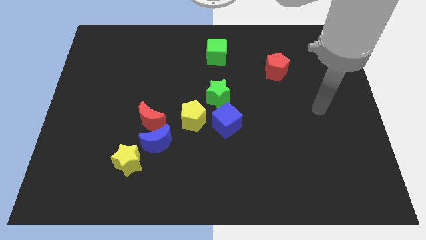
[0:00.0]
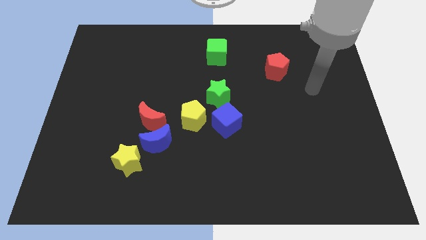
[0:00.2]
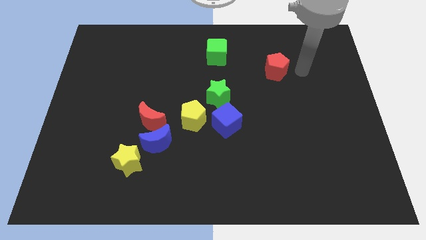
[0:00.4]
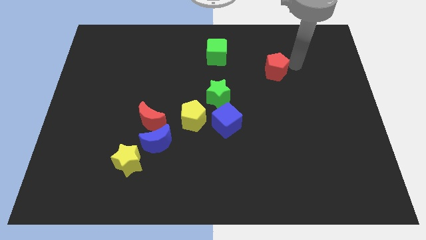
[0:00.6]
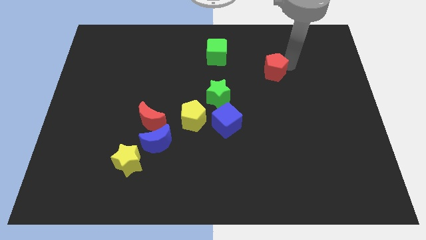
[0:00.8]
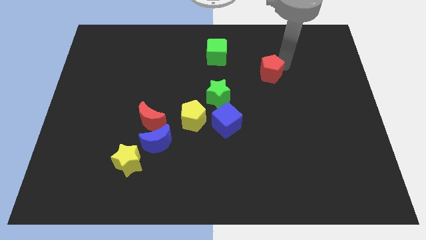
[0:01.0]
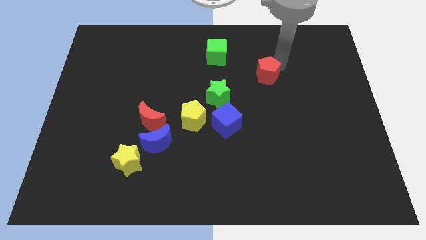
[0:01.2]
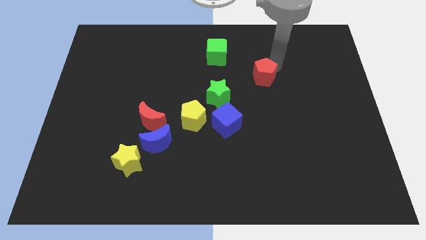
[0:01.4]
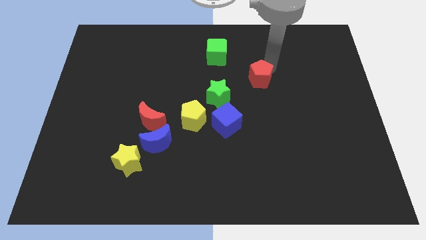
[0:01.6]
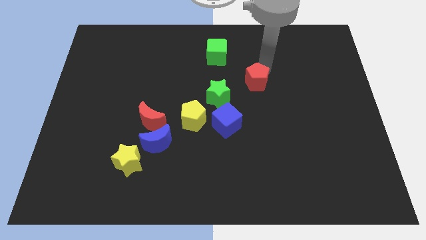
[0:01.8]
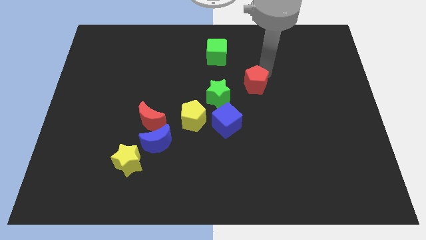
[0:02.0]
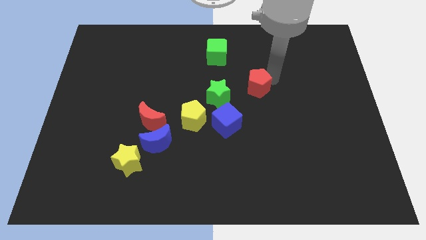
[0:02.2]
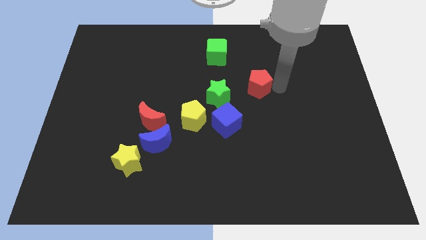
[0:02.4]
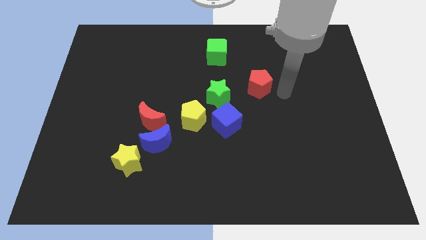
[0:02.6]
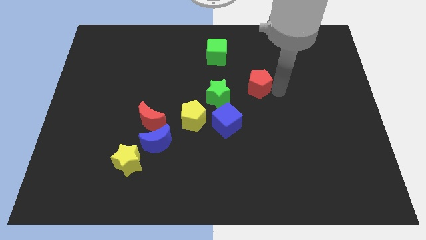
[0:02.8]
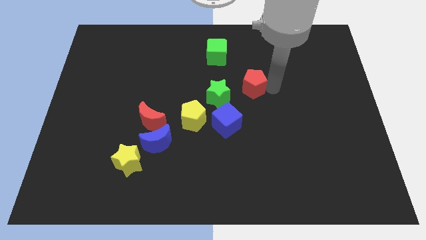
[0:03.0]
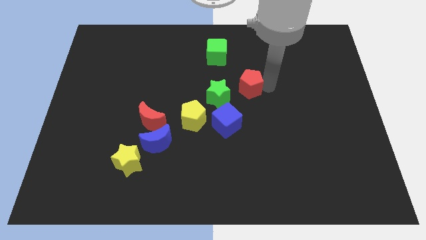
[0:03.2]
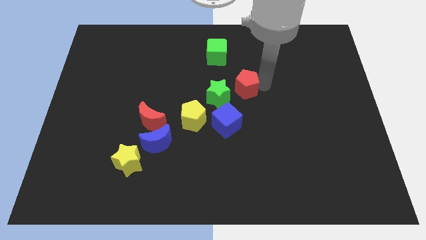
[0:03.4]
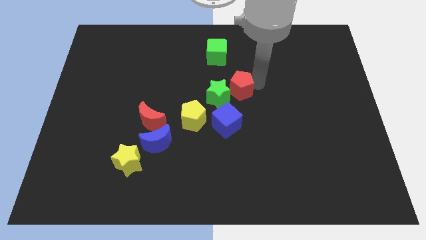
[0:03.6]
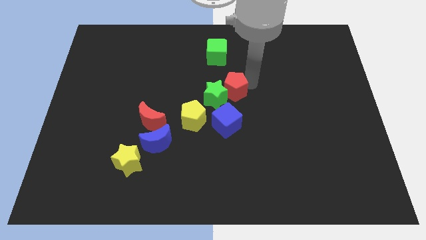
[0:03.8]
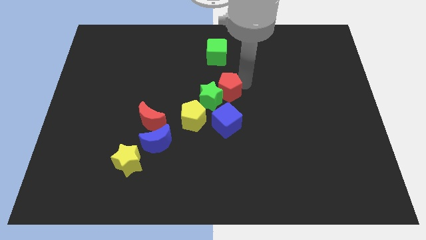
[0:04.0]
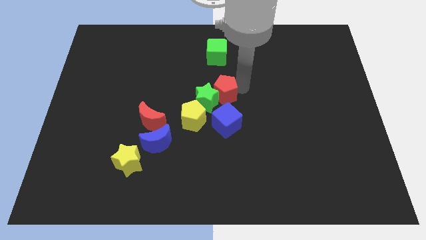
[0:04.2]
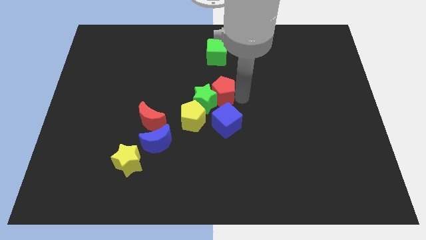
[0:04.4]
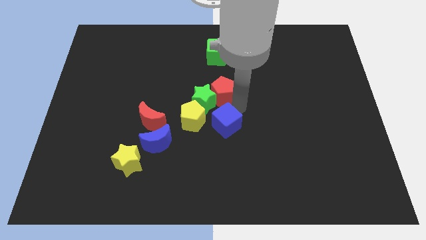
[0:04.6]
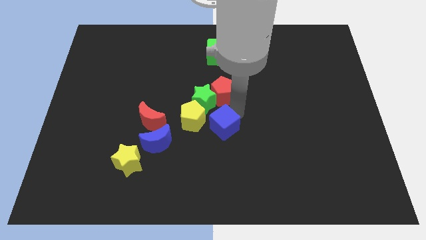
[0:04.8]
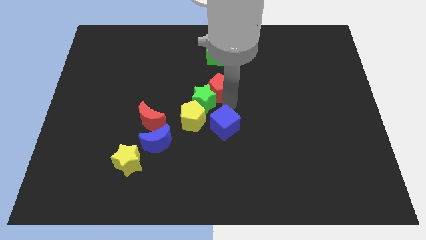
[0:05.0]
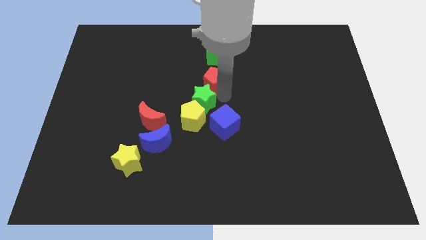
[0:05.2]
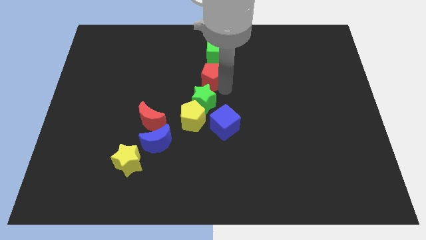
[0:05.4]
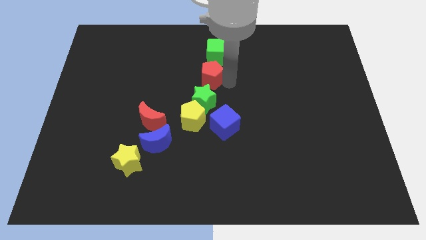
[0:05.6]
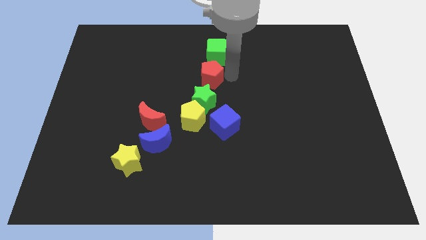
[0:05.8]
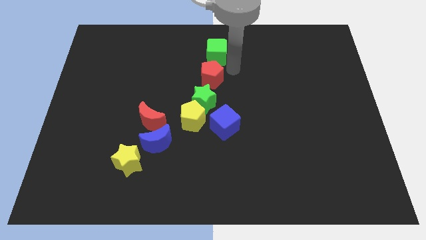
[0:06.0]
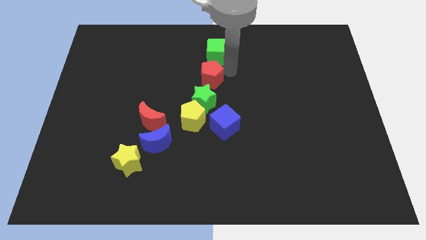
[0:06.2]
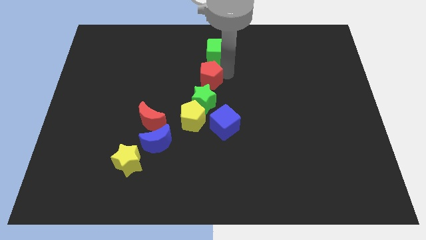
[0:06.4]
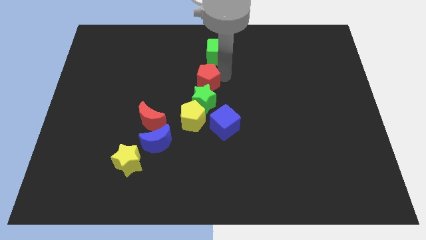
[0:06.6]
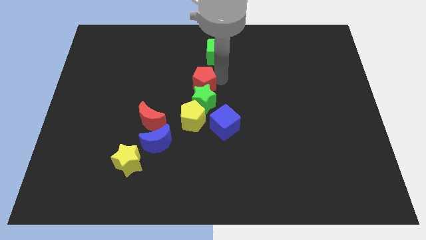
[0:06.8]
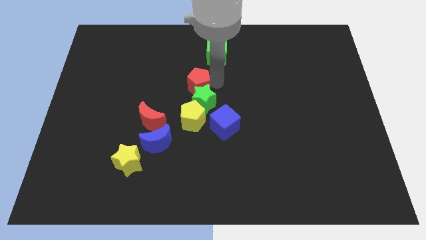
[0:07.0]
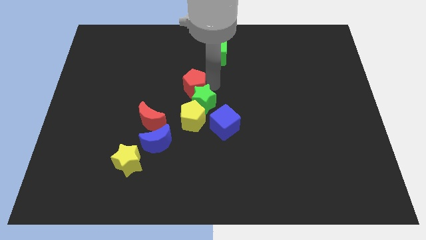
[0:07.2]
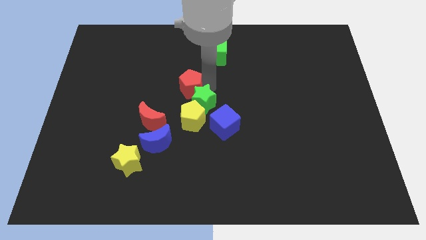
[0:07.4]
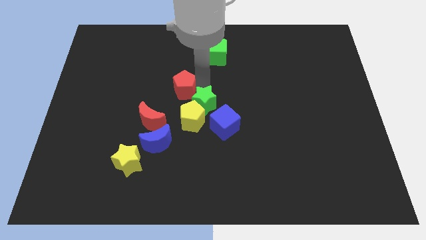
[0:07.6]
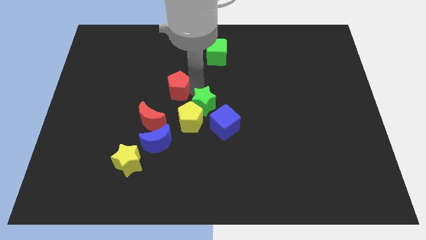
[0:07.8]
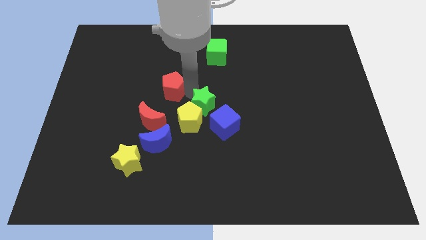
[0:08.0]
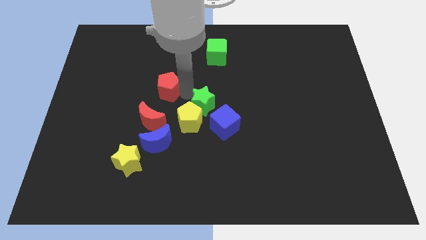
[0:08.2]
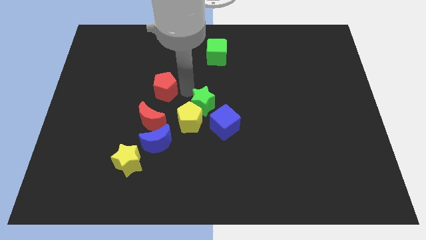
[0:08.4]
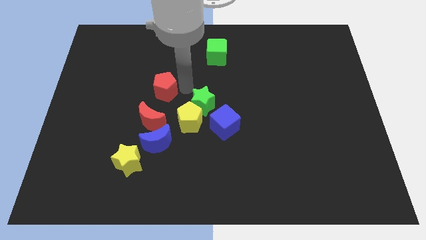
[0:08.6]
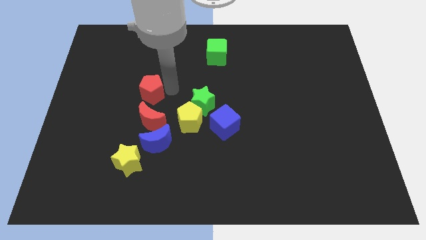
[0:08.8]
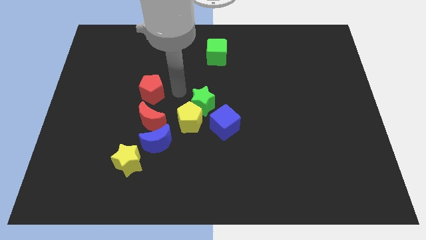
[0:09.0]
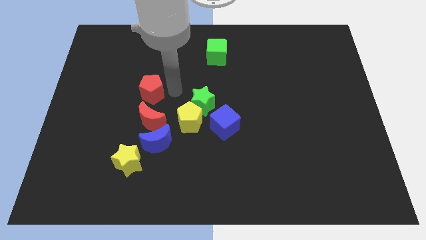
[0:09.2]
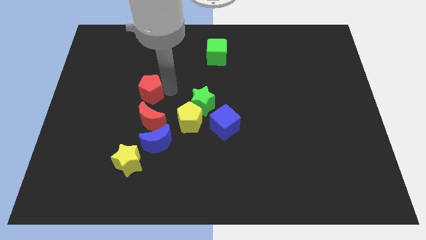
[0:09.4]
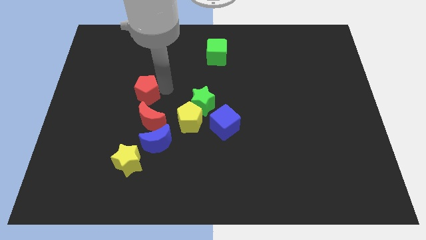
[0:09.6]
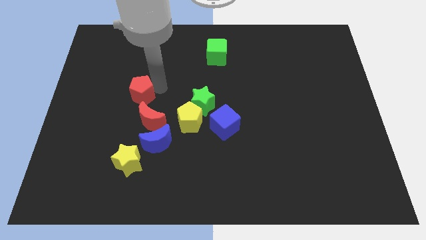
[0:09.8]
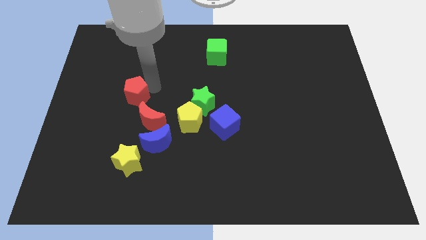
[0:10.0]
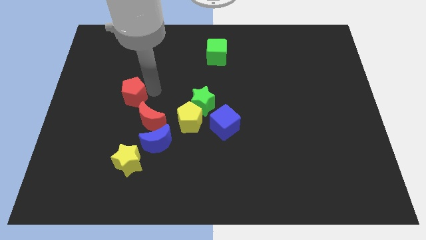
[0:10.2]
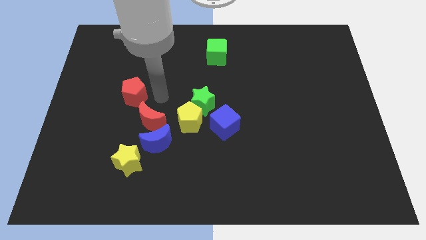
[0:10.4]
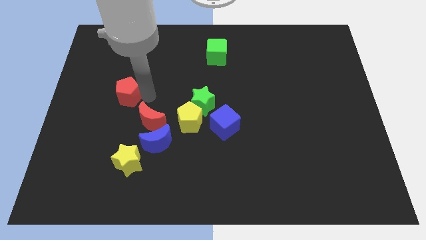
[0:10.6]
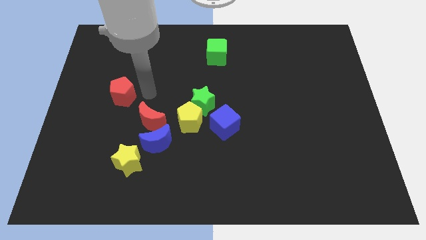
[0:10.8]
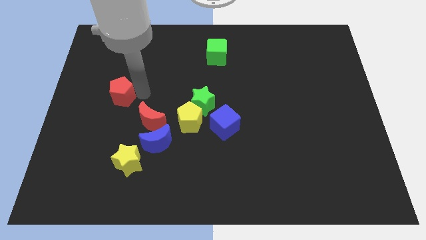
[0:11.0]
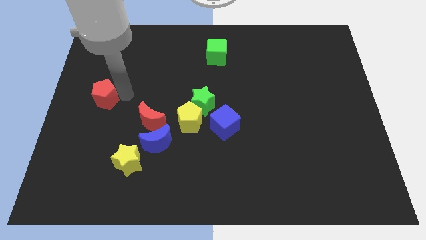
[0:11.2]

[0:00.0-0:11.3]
push the red pentagon to the left side of the board

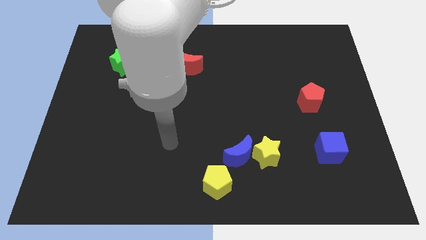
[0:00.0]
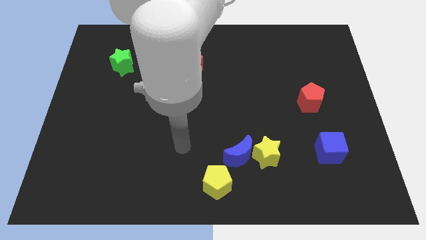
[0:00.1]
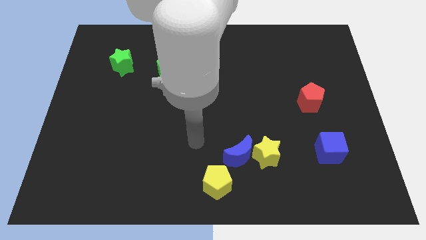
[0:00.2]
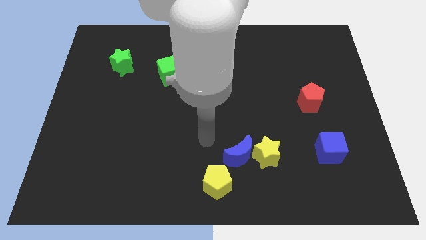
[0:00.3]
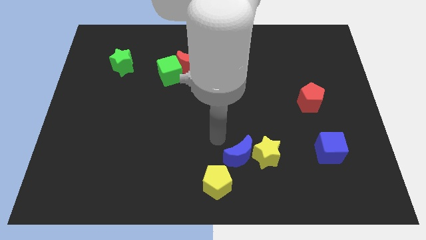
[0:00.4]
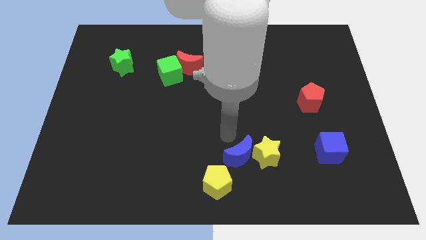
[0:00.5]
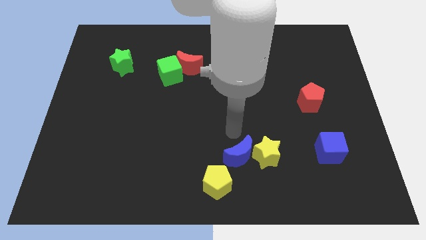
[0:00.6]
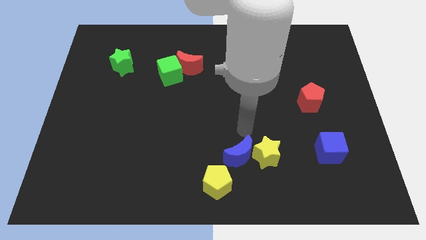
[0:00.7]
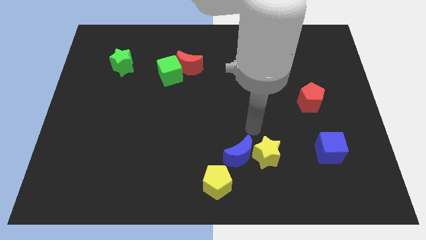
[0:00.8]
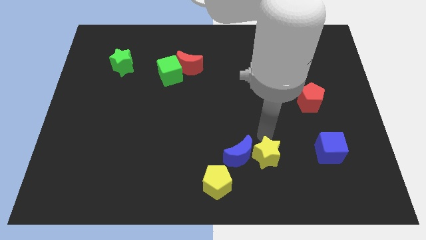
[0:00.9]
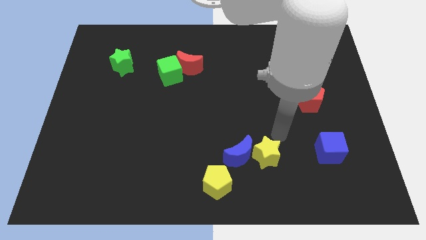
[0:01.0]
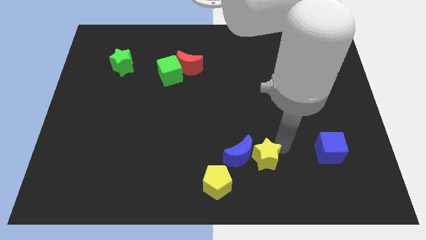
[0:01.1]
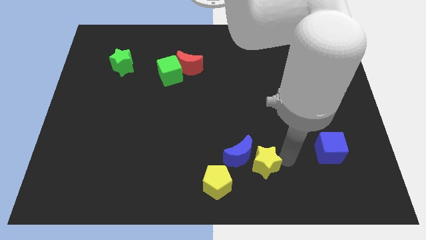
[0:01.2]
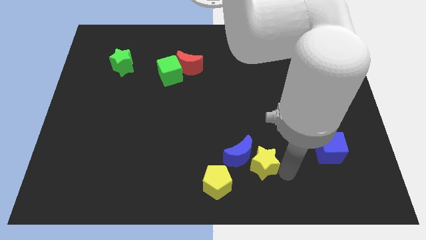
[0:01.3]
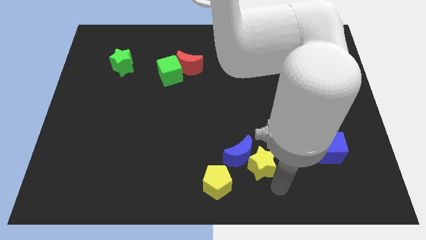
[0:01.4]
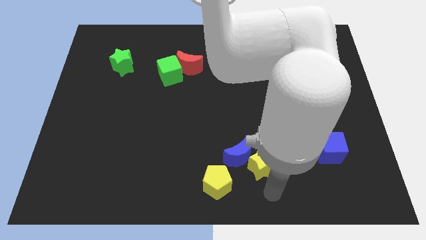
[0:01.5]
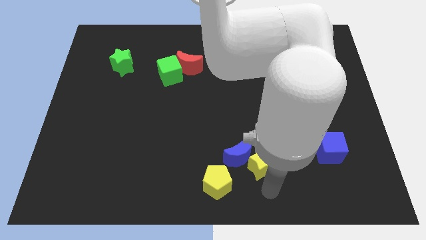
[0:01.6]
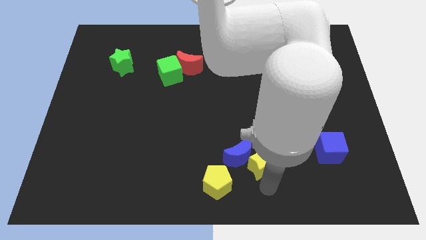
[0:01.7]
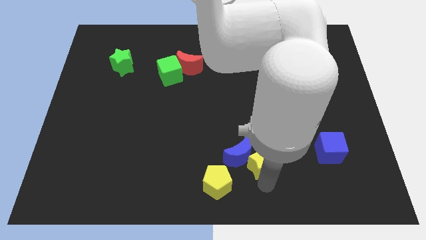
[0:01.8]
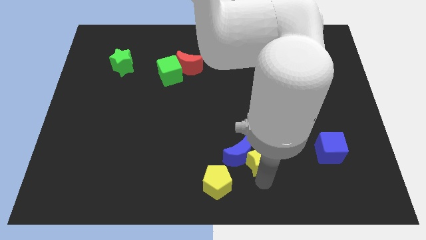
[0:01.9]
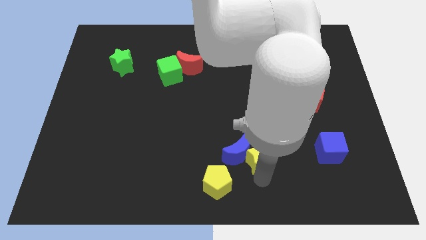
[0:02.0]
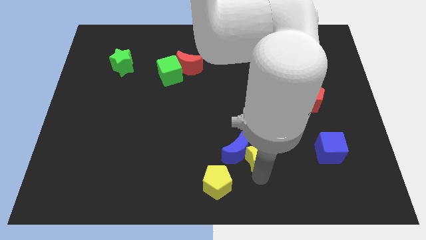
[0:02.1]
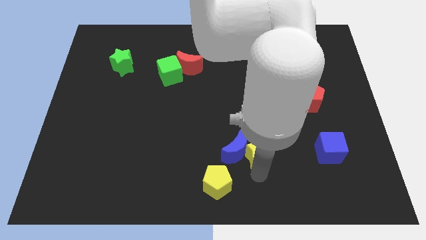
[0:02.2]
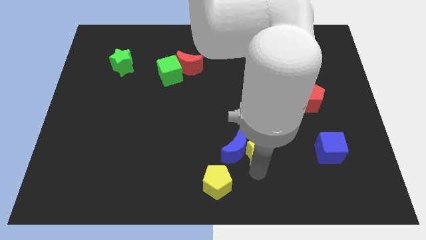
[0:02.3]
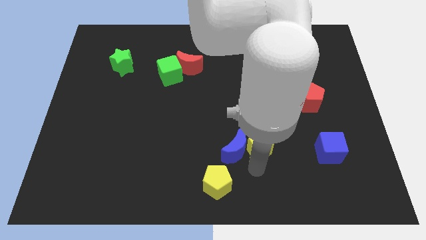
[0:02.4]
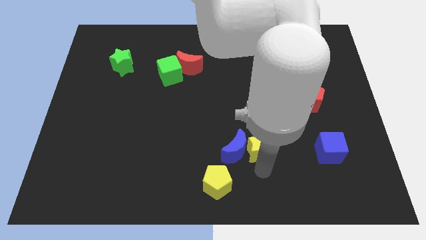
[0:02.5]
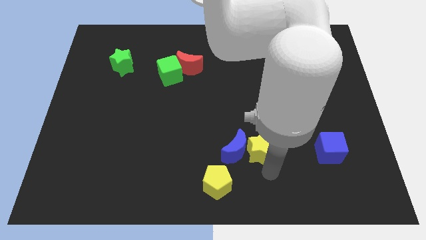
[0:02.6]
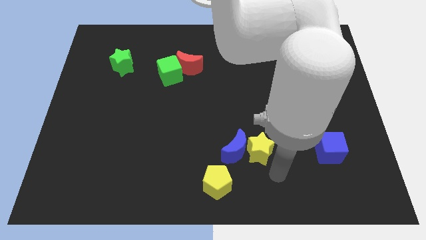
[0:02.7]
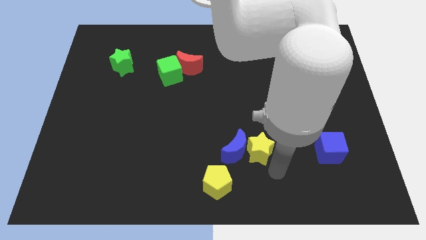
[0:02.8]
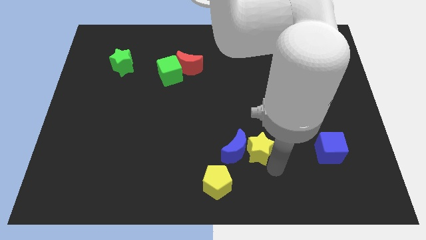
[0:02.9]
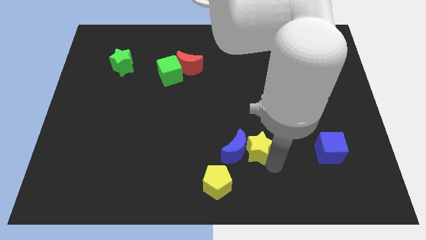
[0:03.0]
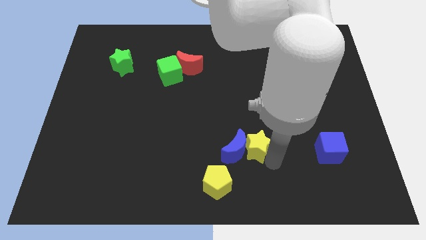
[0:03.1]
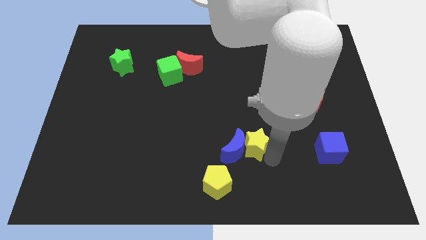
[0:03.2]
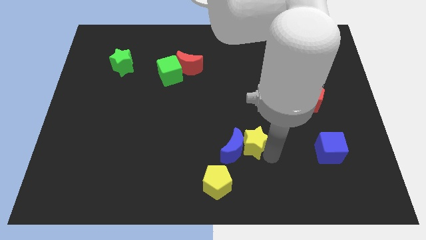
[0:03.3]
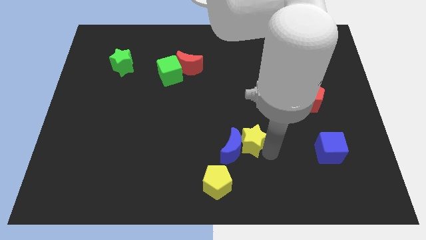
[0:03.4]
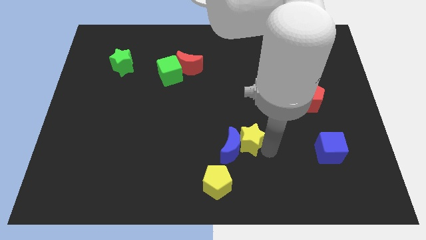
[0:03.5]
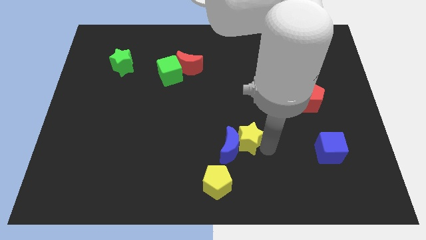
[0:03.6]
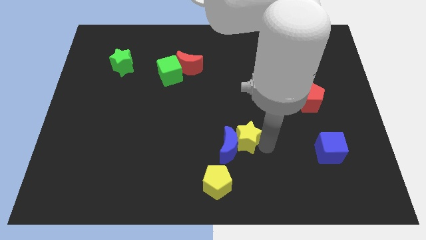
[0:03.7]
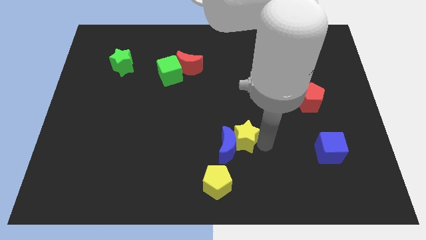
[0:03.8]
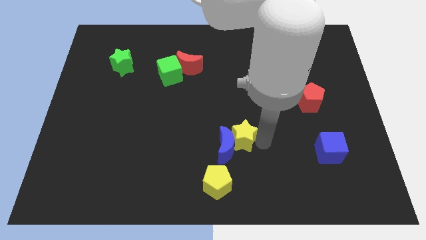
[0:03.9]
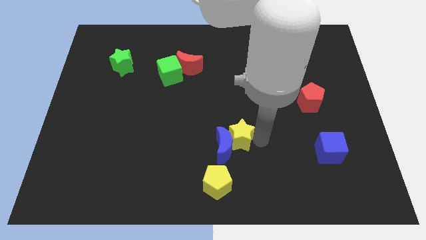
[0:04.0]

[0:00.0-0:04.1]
put the yellow star to the middle
